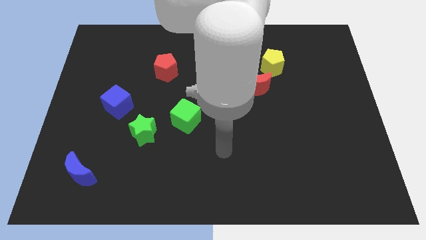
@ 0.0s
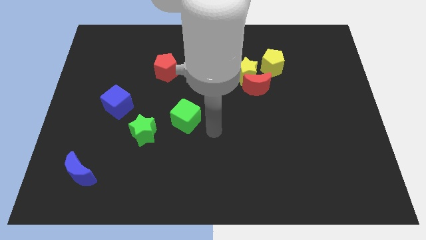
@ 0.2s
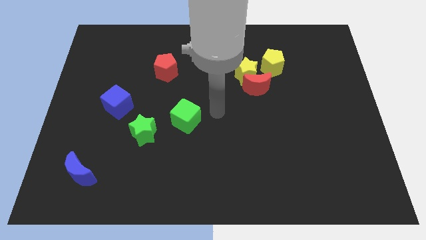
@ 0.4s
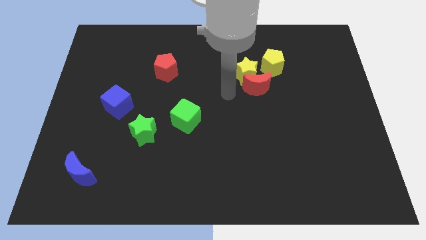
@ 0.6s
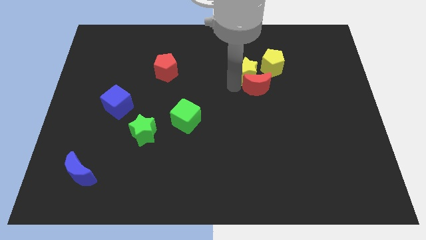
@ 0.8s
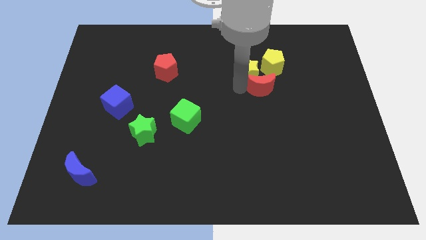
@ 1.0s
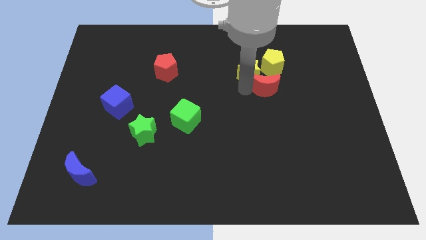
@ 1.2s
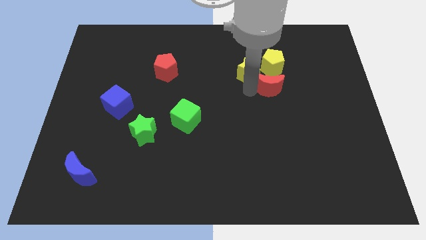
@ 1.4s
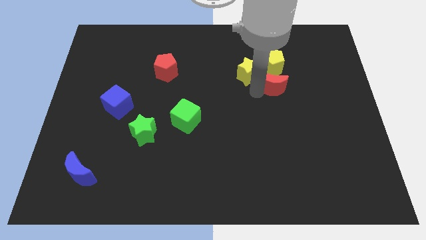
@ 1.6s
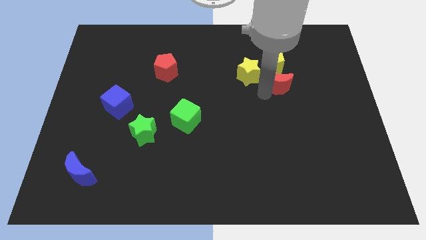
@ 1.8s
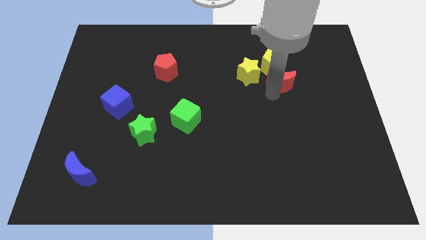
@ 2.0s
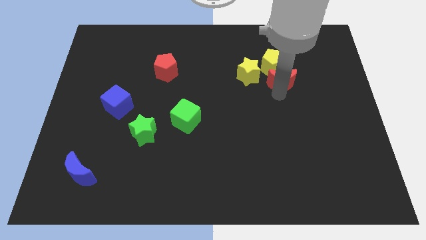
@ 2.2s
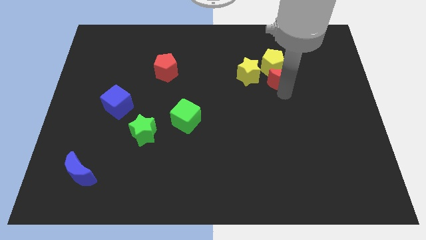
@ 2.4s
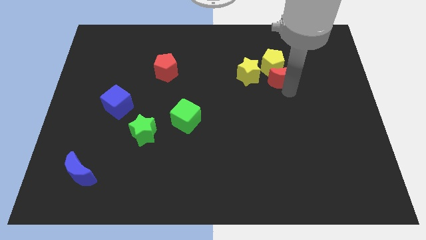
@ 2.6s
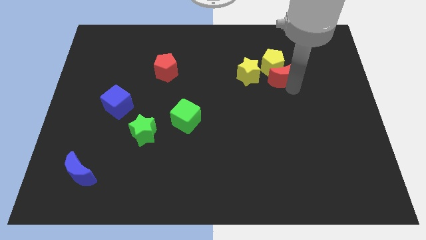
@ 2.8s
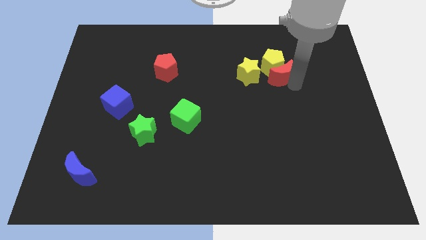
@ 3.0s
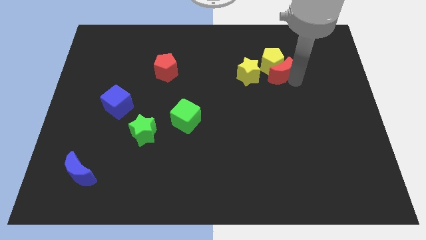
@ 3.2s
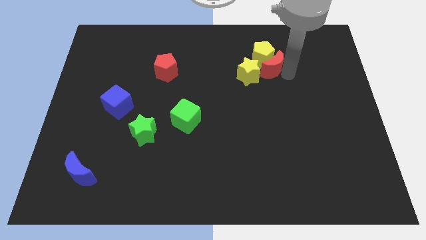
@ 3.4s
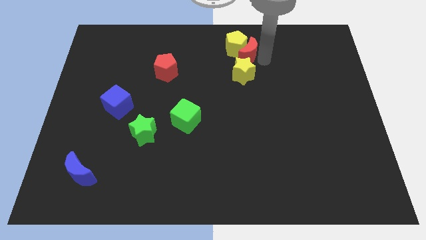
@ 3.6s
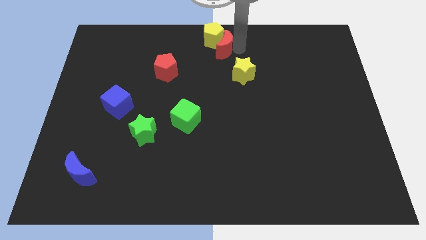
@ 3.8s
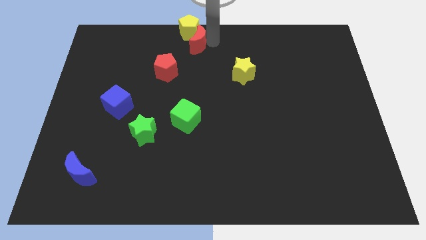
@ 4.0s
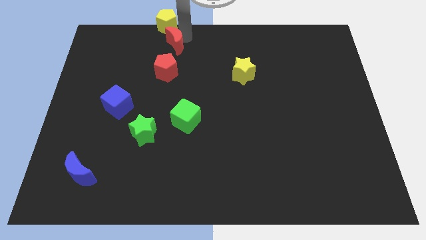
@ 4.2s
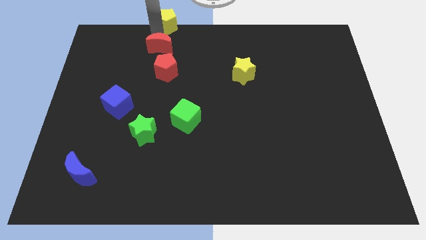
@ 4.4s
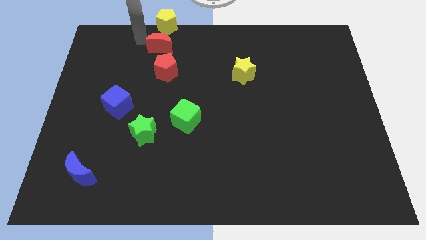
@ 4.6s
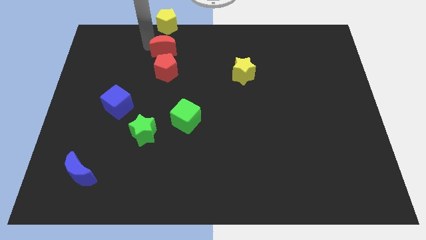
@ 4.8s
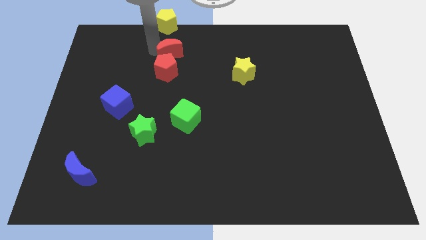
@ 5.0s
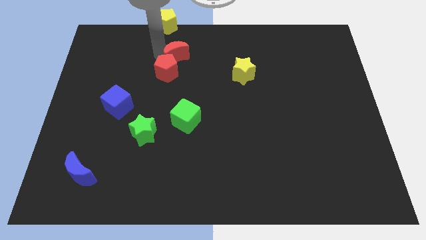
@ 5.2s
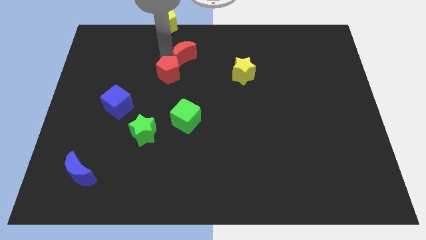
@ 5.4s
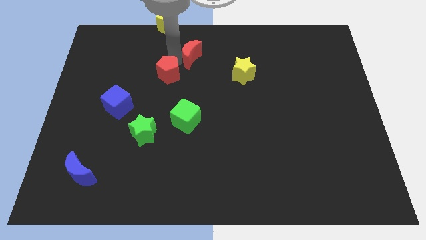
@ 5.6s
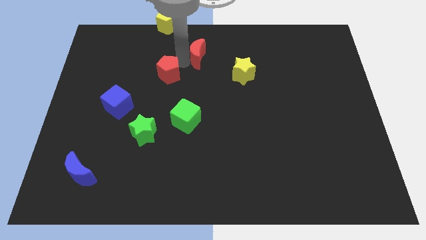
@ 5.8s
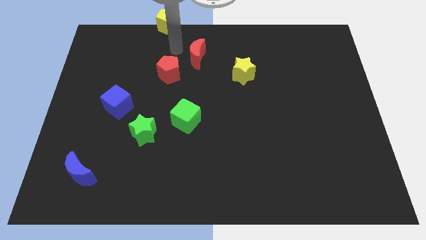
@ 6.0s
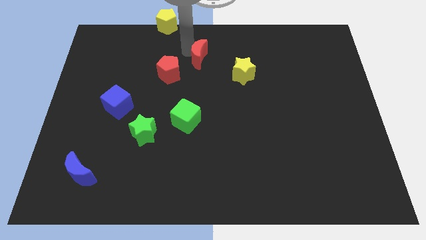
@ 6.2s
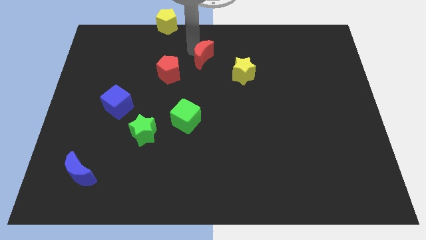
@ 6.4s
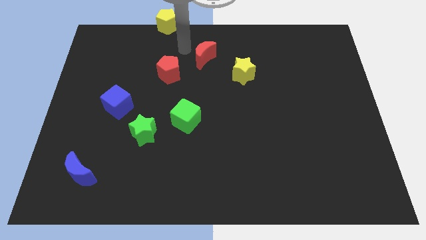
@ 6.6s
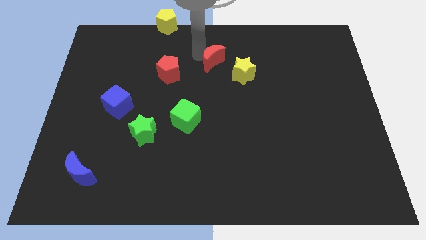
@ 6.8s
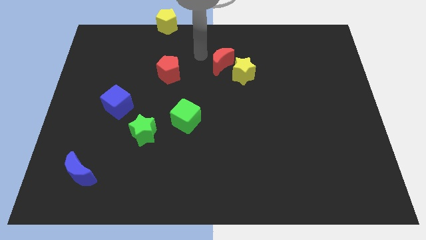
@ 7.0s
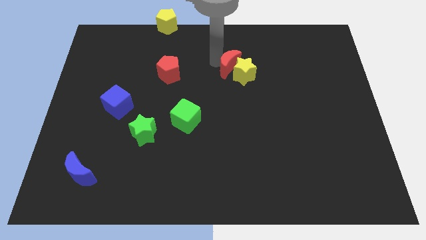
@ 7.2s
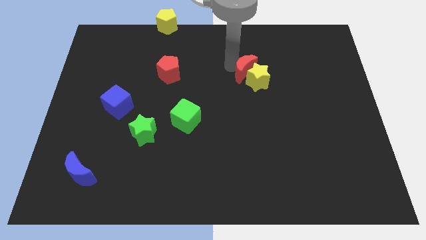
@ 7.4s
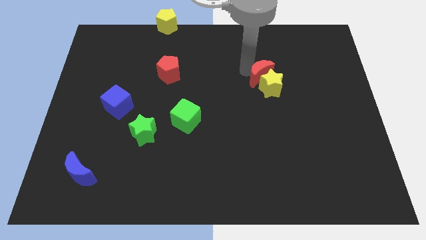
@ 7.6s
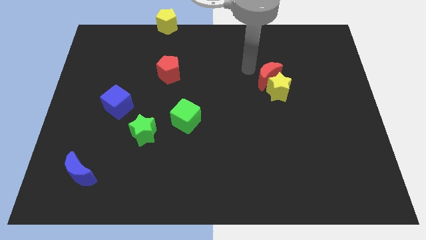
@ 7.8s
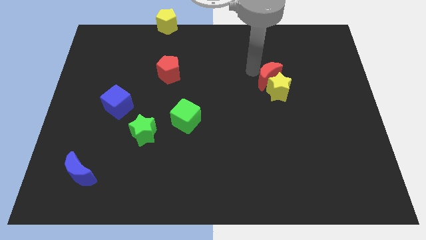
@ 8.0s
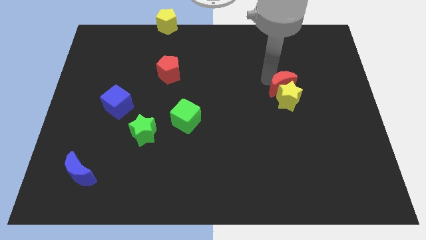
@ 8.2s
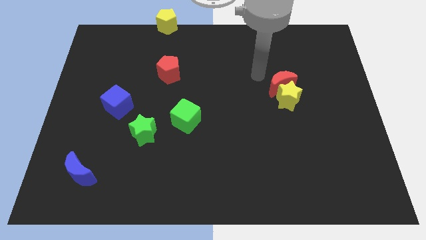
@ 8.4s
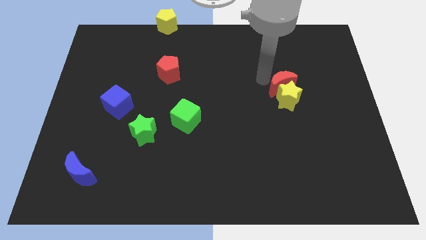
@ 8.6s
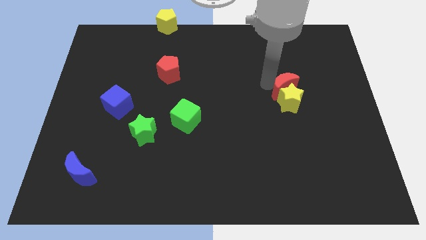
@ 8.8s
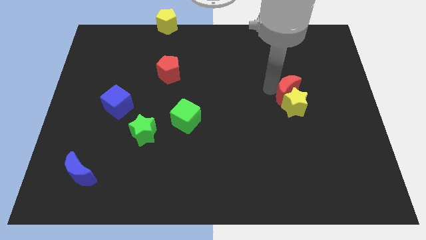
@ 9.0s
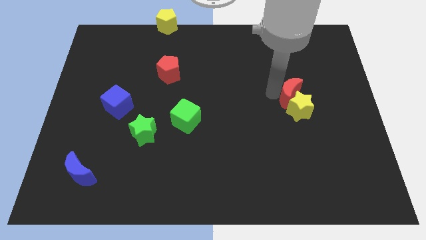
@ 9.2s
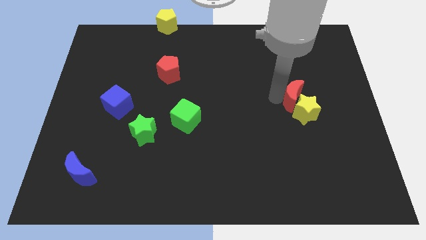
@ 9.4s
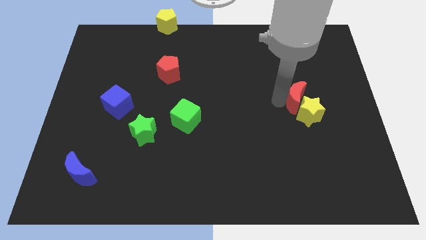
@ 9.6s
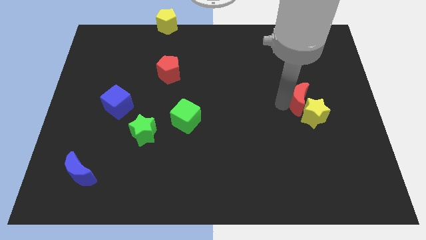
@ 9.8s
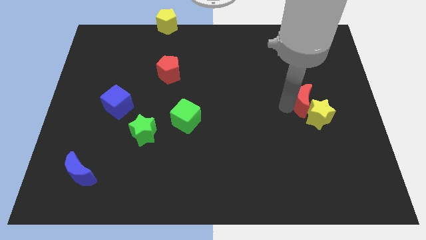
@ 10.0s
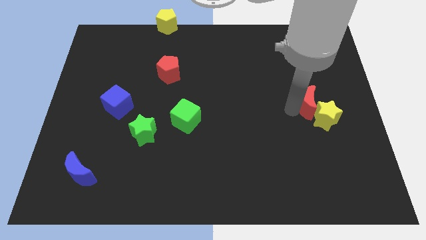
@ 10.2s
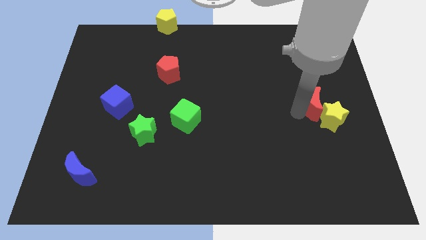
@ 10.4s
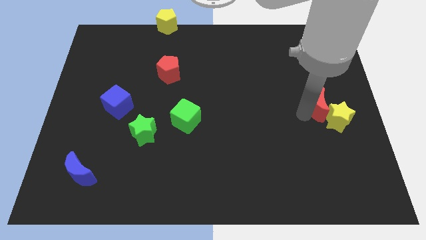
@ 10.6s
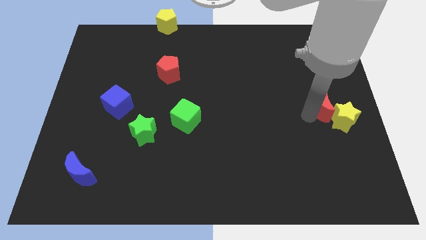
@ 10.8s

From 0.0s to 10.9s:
slide the red moon to the right side

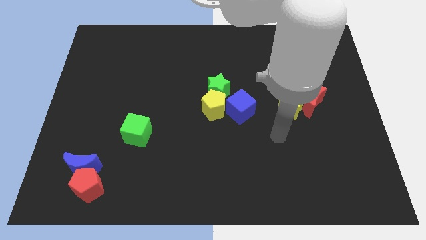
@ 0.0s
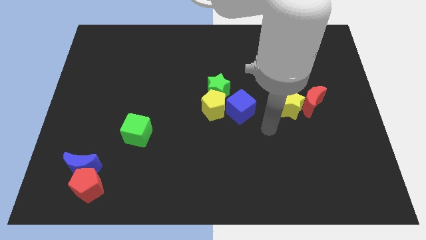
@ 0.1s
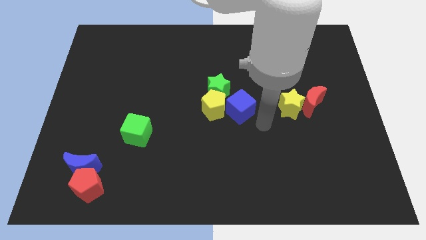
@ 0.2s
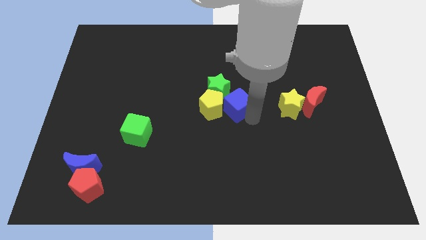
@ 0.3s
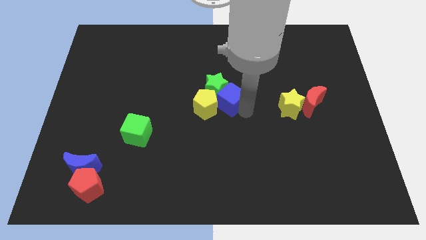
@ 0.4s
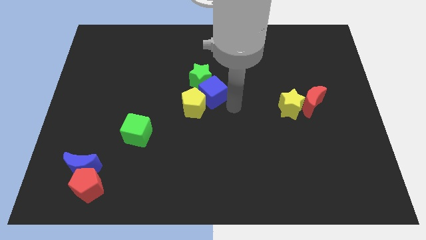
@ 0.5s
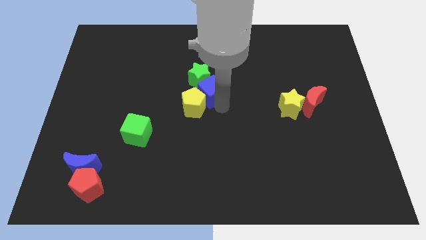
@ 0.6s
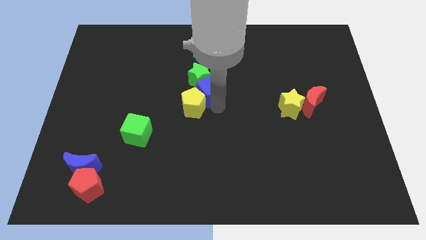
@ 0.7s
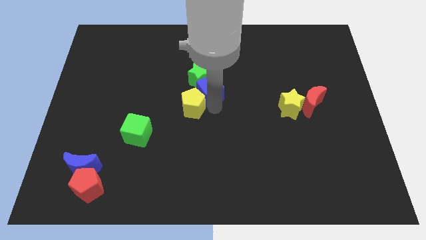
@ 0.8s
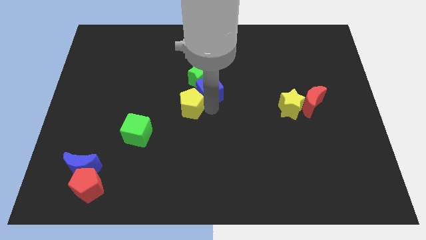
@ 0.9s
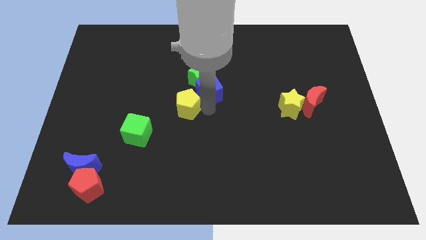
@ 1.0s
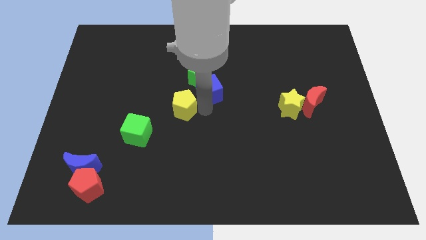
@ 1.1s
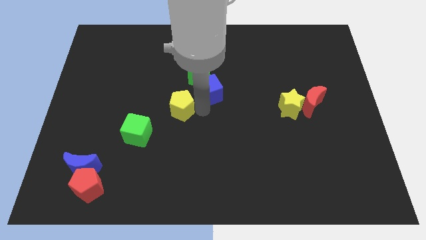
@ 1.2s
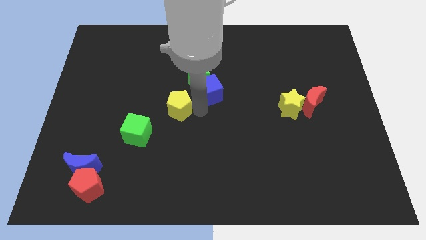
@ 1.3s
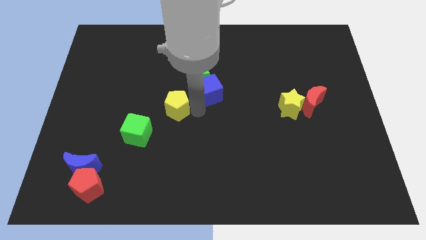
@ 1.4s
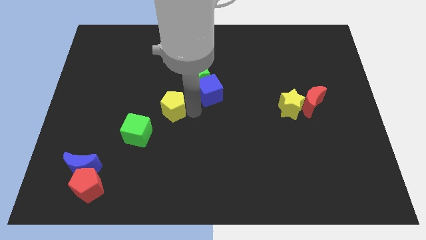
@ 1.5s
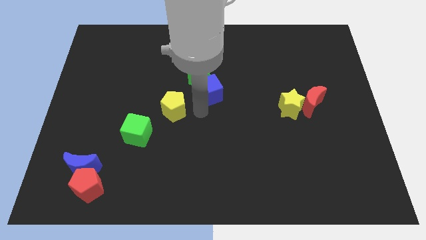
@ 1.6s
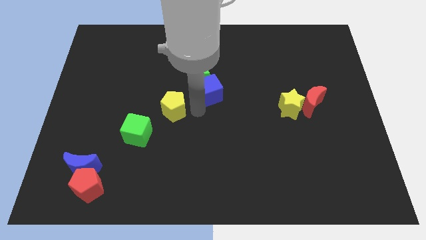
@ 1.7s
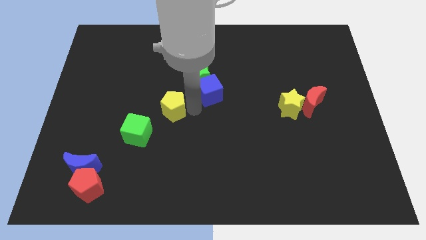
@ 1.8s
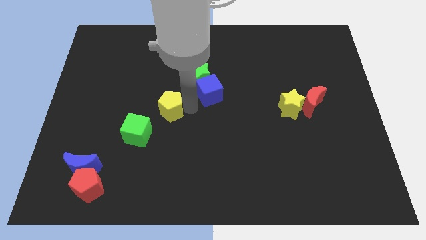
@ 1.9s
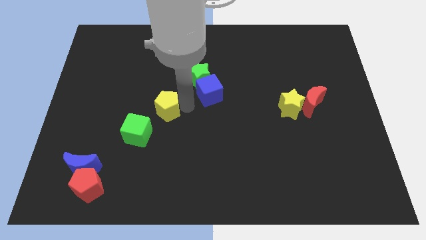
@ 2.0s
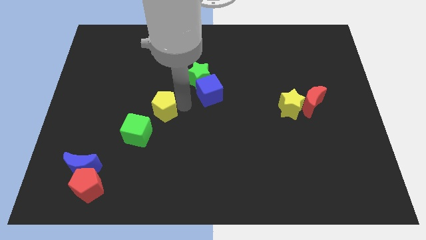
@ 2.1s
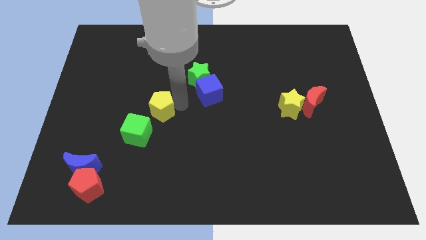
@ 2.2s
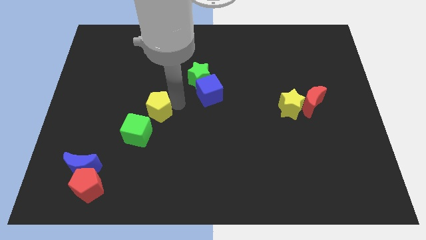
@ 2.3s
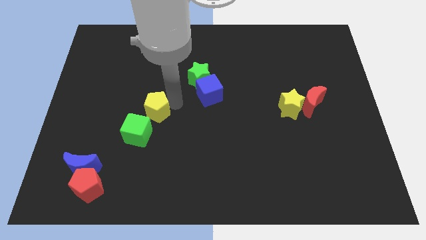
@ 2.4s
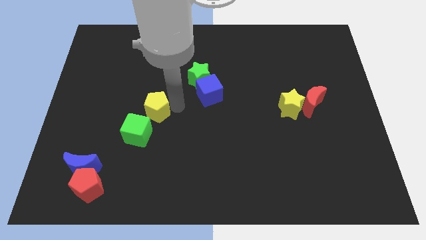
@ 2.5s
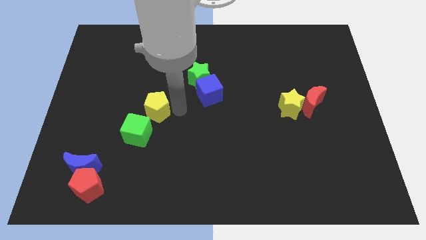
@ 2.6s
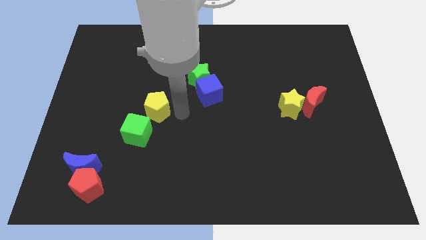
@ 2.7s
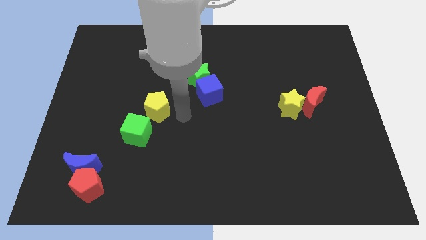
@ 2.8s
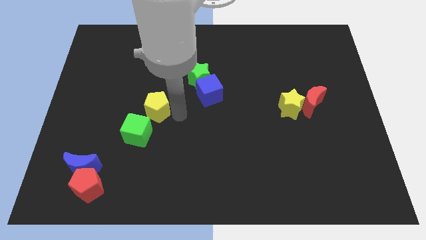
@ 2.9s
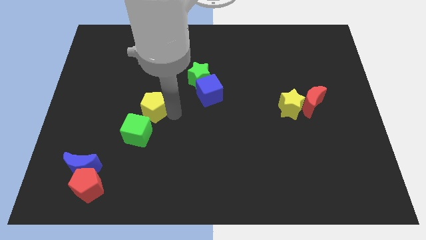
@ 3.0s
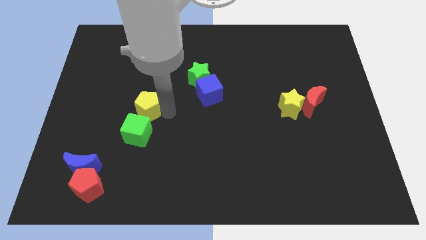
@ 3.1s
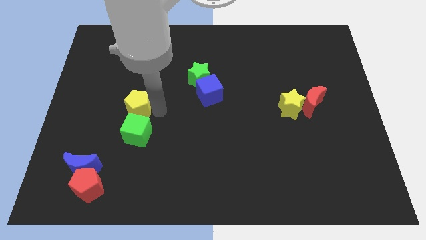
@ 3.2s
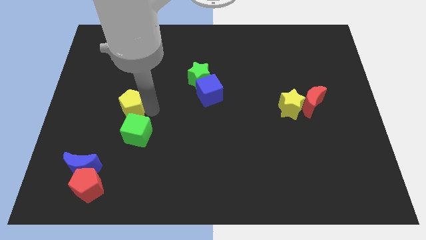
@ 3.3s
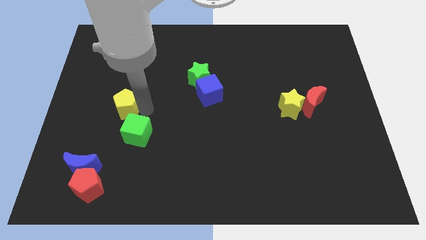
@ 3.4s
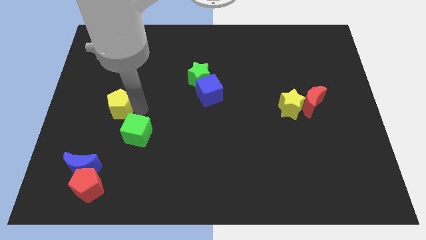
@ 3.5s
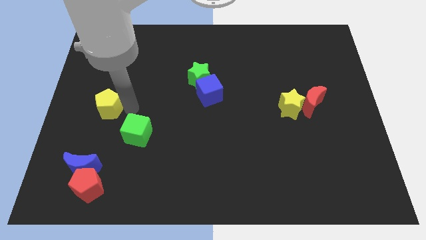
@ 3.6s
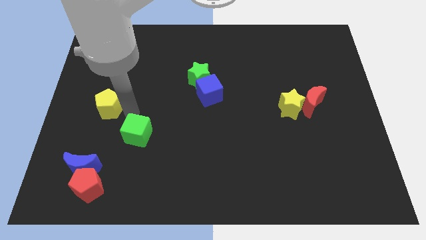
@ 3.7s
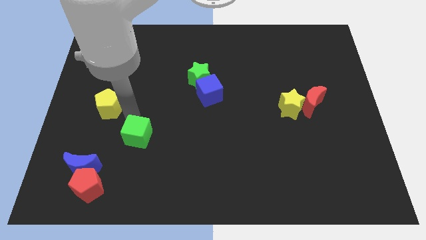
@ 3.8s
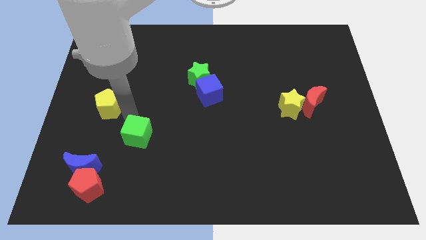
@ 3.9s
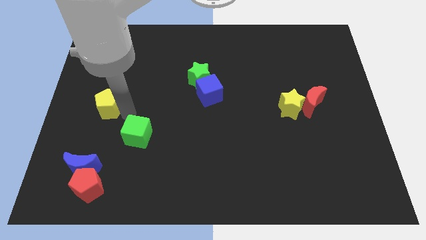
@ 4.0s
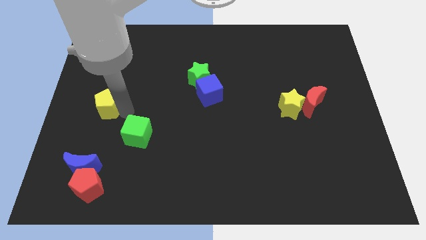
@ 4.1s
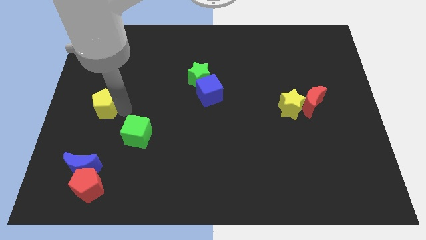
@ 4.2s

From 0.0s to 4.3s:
move the yellow pentagon to the left side
